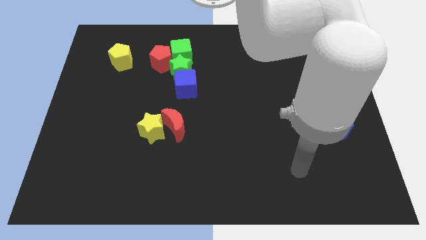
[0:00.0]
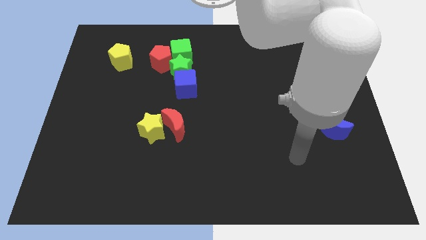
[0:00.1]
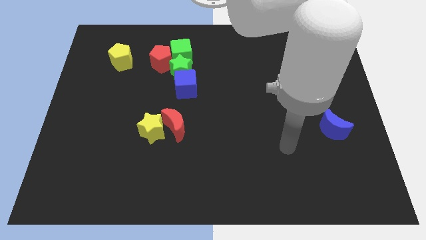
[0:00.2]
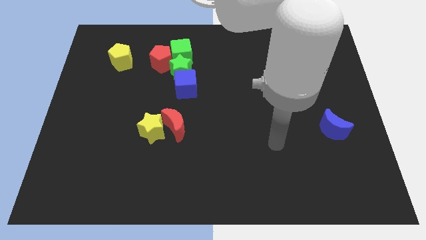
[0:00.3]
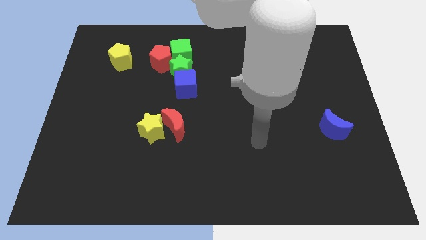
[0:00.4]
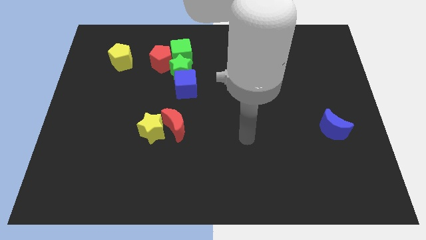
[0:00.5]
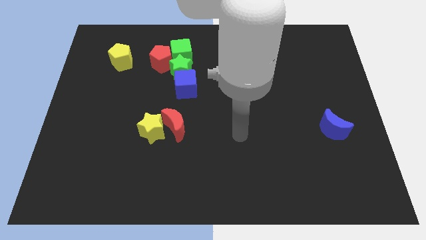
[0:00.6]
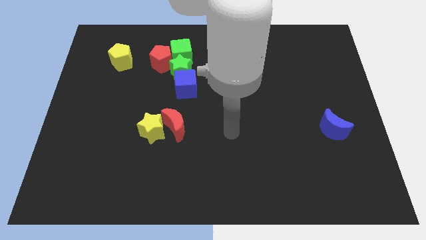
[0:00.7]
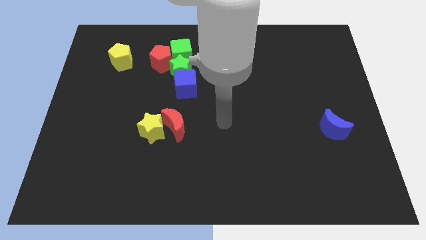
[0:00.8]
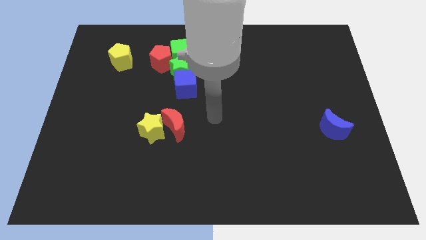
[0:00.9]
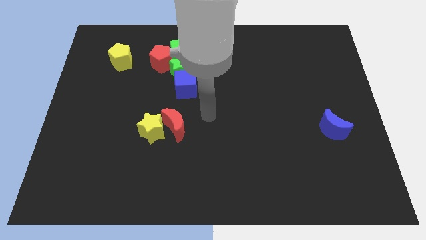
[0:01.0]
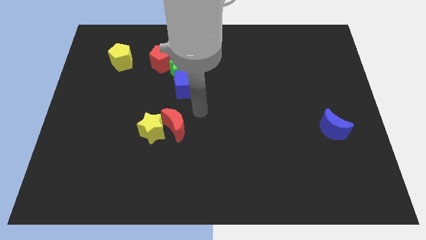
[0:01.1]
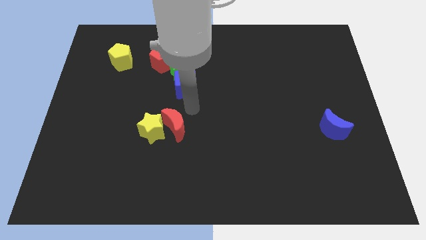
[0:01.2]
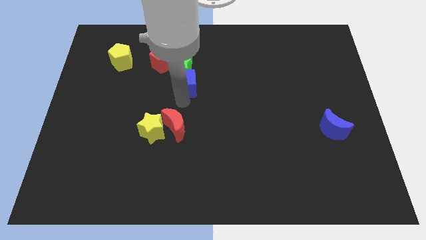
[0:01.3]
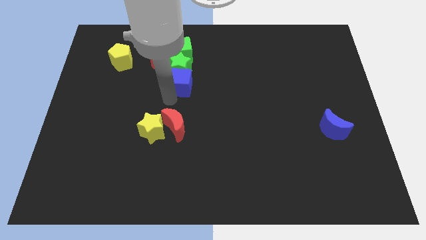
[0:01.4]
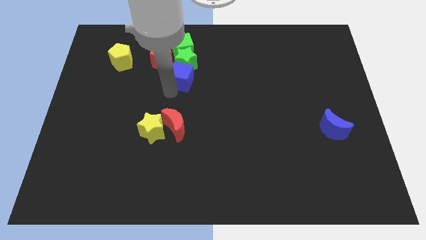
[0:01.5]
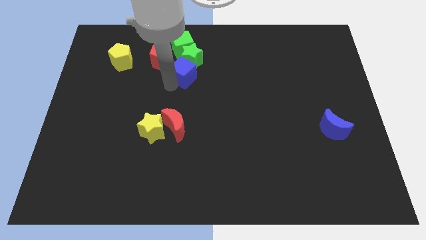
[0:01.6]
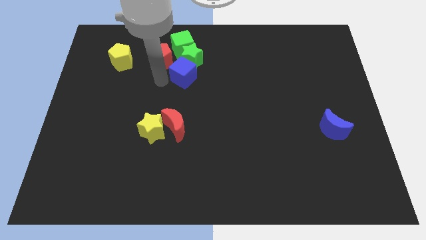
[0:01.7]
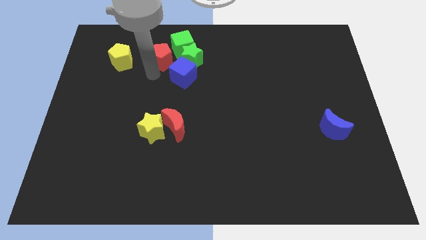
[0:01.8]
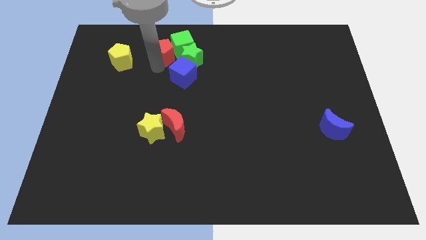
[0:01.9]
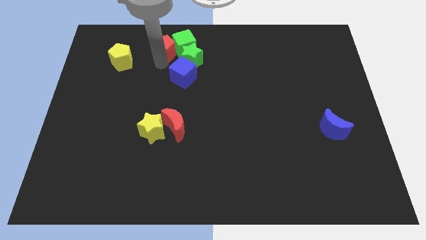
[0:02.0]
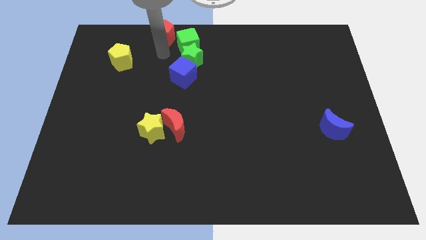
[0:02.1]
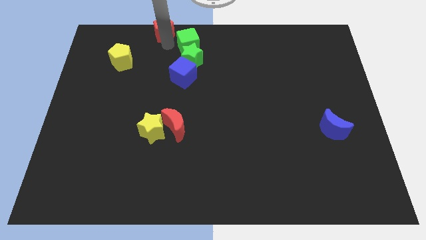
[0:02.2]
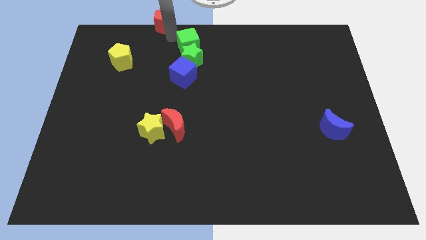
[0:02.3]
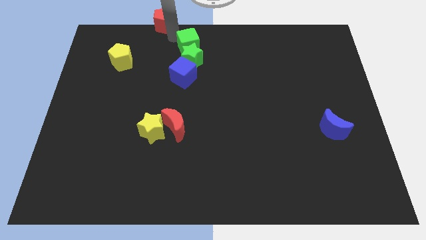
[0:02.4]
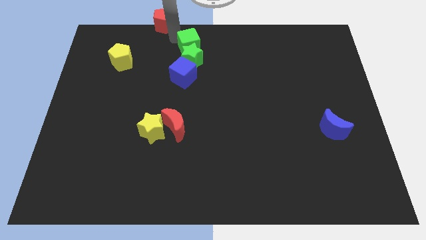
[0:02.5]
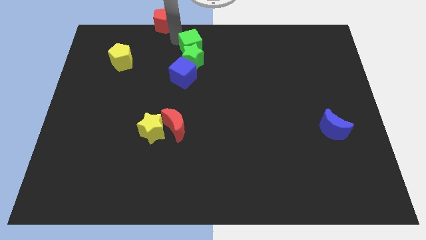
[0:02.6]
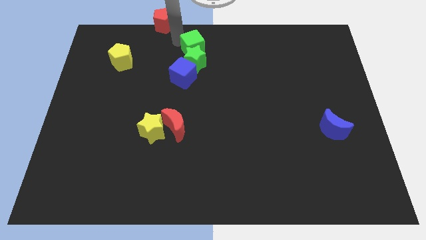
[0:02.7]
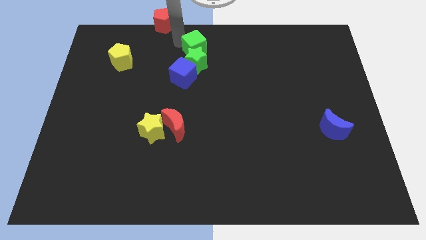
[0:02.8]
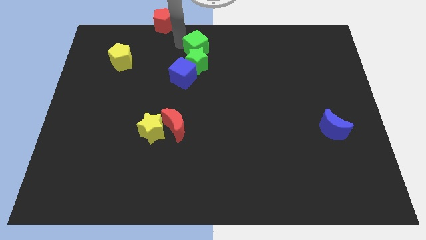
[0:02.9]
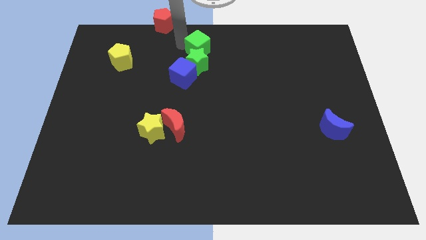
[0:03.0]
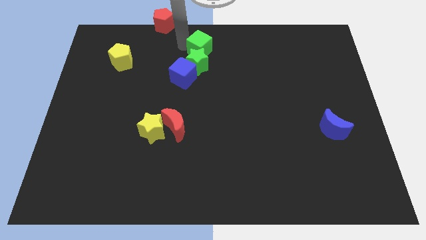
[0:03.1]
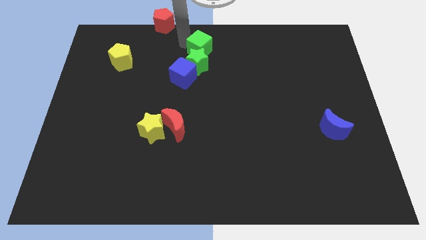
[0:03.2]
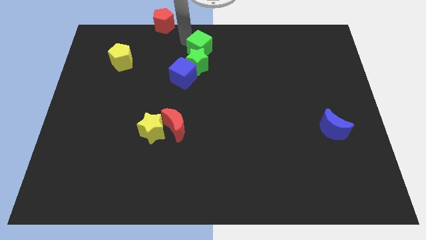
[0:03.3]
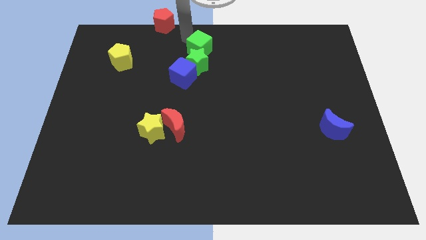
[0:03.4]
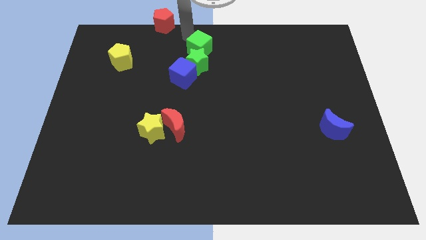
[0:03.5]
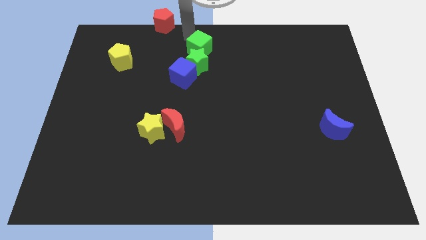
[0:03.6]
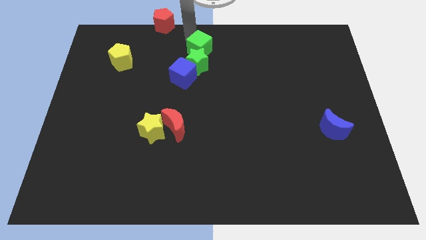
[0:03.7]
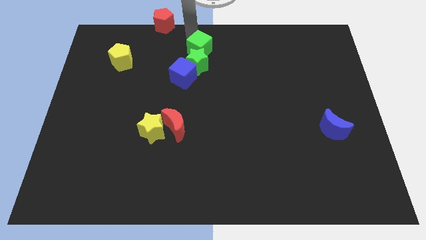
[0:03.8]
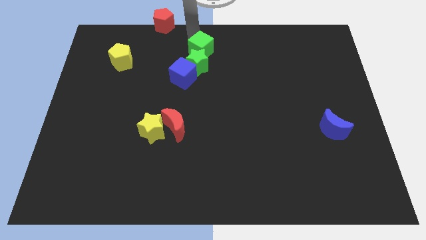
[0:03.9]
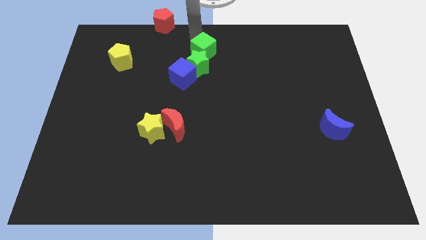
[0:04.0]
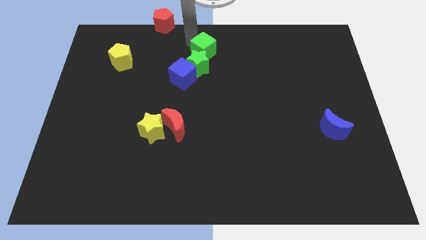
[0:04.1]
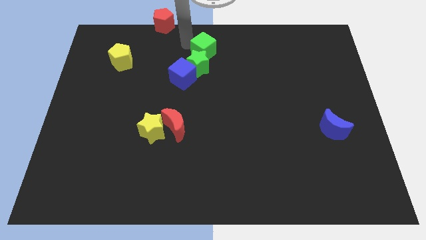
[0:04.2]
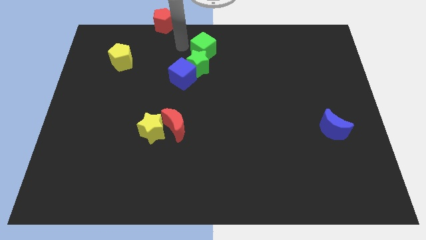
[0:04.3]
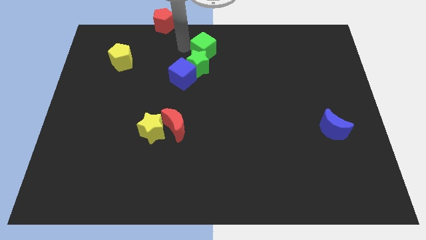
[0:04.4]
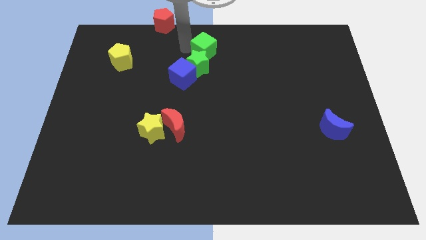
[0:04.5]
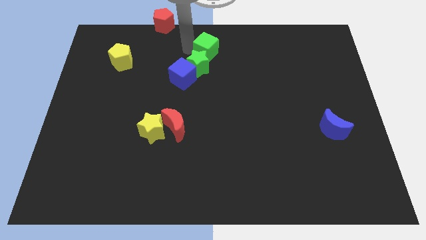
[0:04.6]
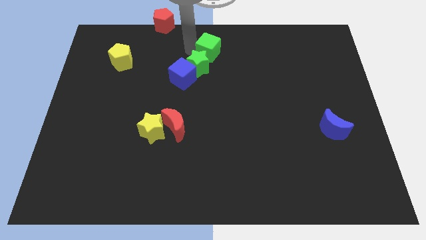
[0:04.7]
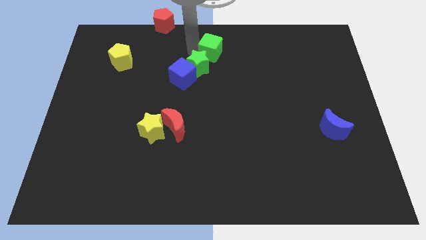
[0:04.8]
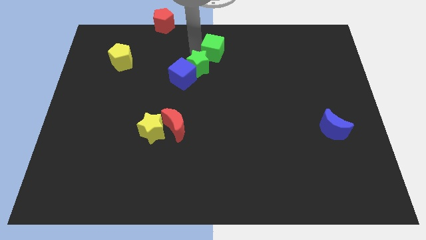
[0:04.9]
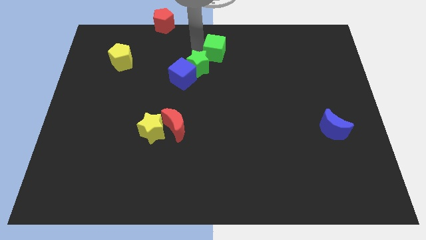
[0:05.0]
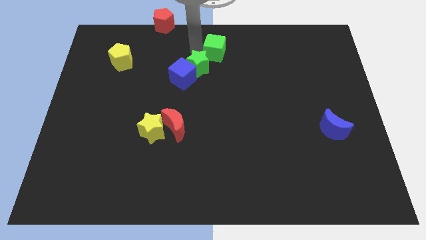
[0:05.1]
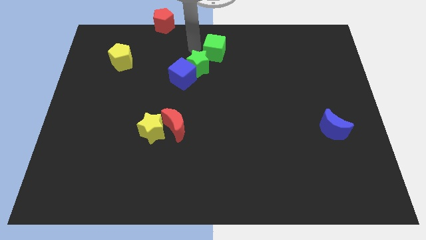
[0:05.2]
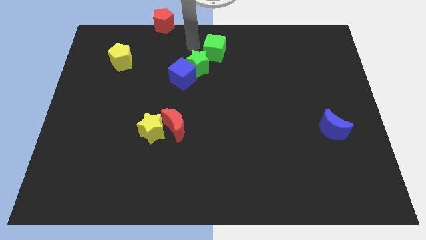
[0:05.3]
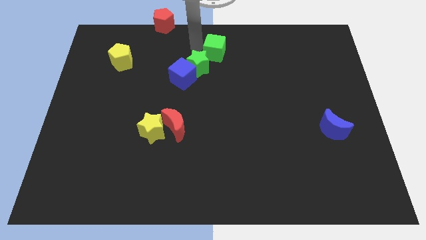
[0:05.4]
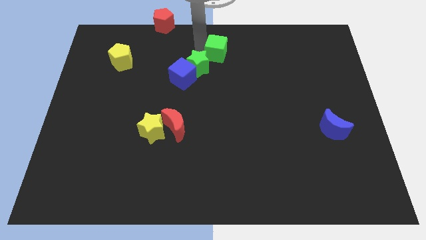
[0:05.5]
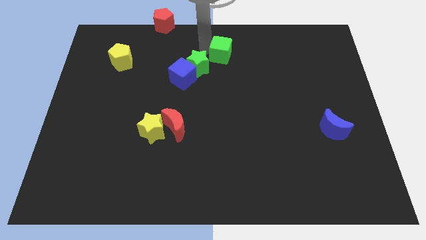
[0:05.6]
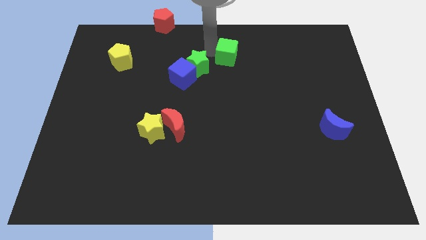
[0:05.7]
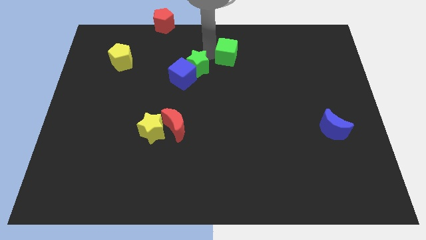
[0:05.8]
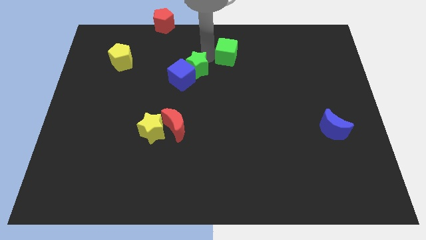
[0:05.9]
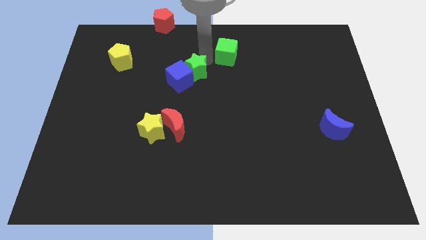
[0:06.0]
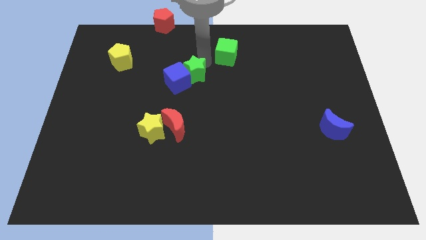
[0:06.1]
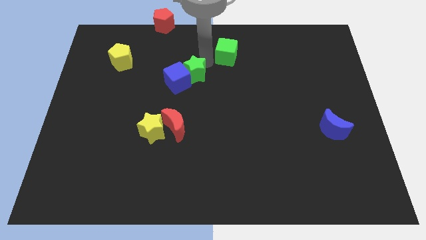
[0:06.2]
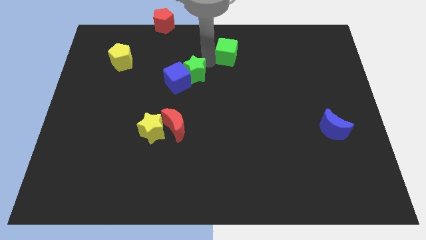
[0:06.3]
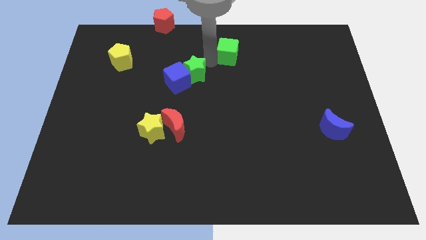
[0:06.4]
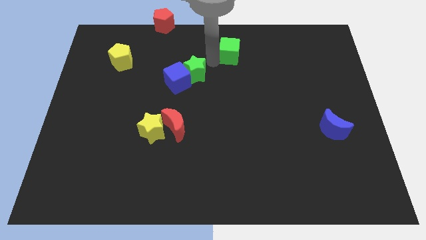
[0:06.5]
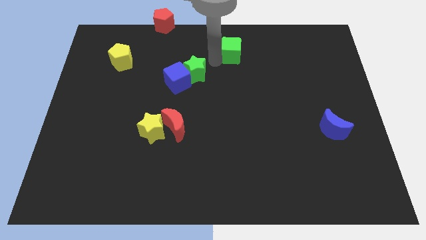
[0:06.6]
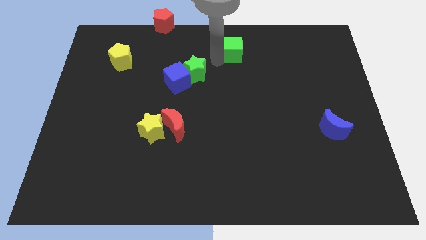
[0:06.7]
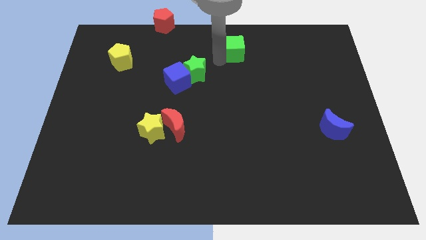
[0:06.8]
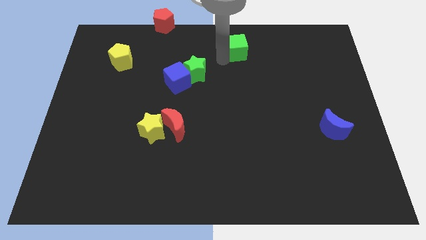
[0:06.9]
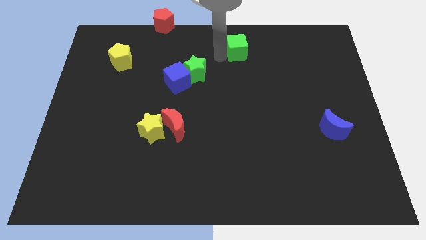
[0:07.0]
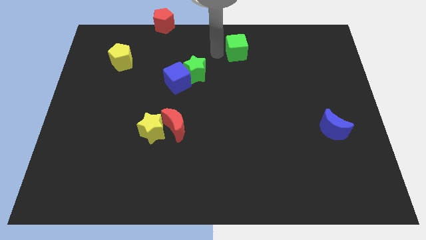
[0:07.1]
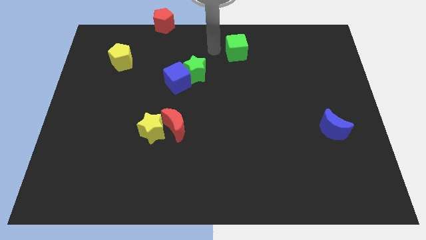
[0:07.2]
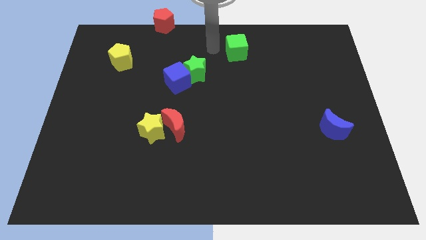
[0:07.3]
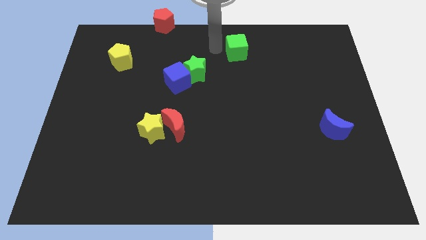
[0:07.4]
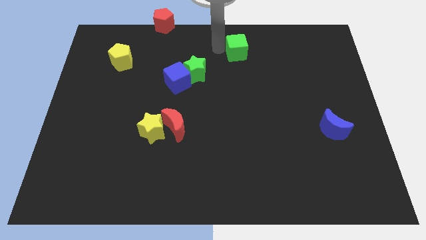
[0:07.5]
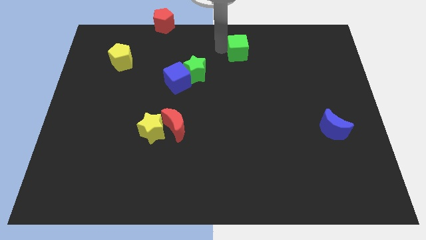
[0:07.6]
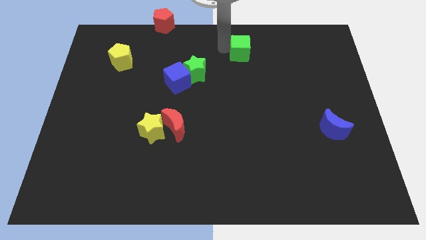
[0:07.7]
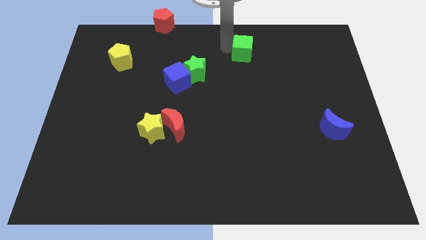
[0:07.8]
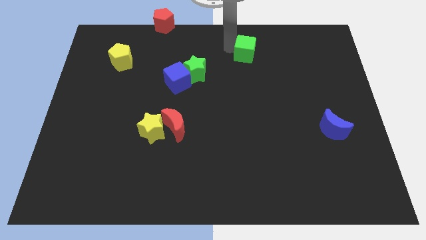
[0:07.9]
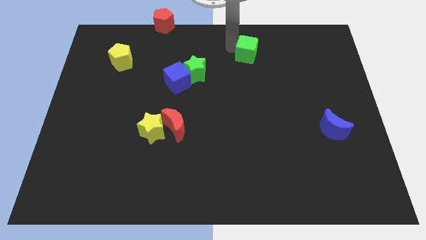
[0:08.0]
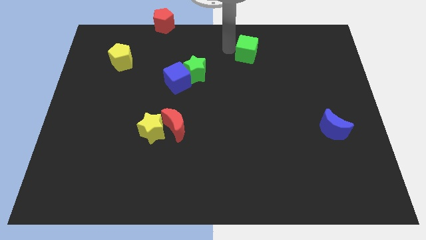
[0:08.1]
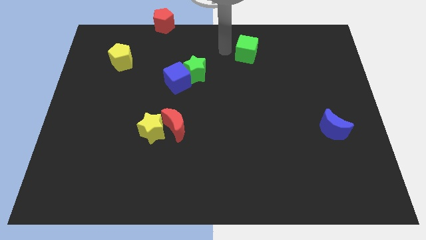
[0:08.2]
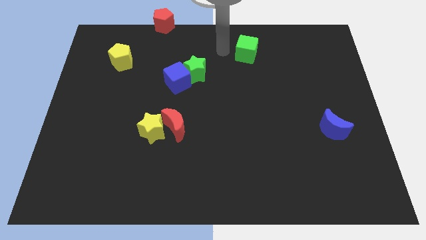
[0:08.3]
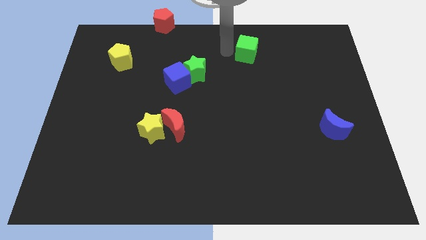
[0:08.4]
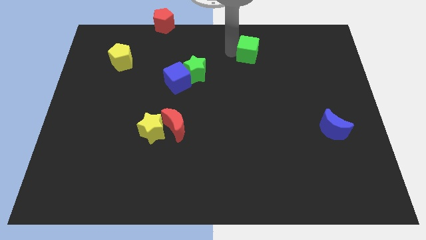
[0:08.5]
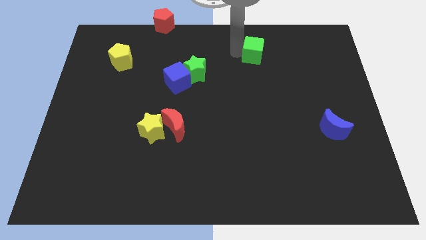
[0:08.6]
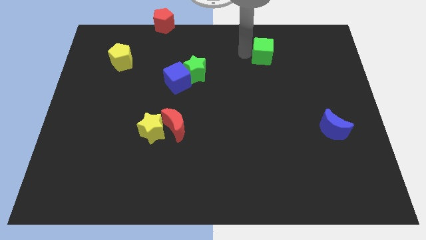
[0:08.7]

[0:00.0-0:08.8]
push the green cube to the right
